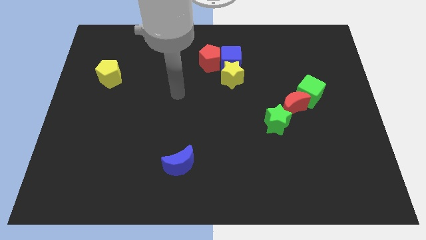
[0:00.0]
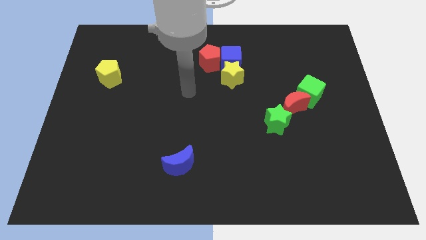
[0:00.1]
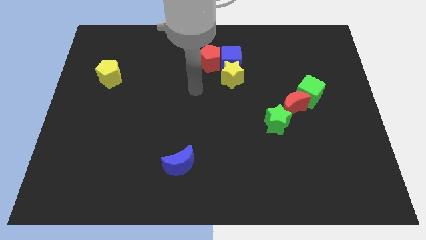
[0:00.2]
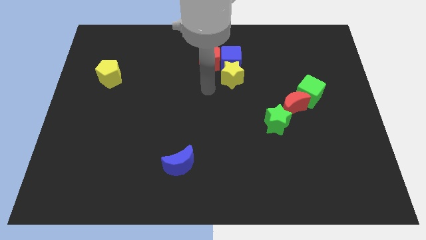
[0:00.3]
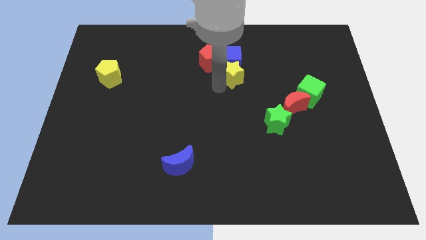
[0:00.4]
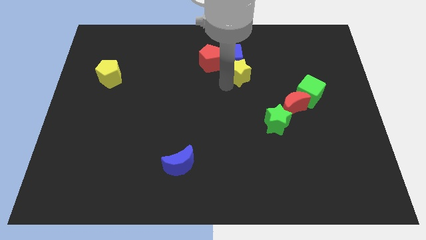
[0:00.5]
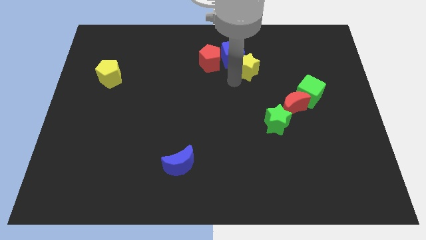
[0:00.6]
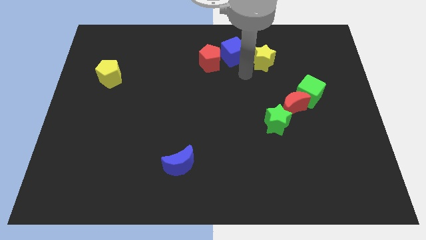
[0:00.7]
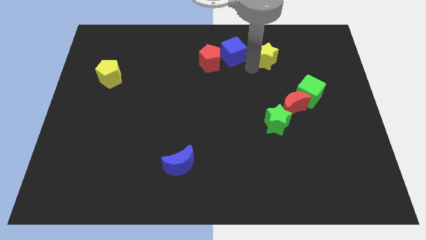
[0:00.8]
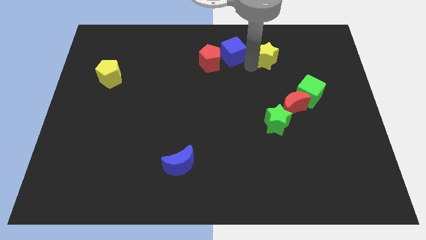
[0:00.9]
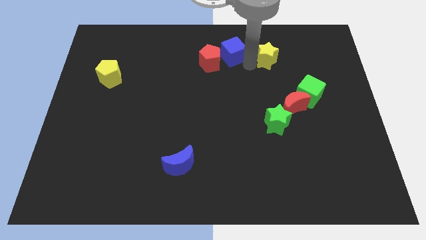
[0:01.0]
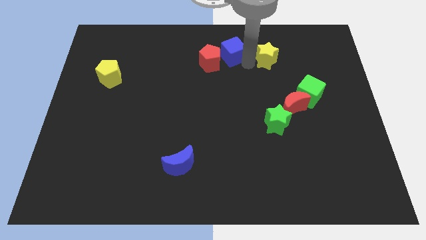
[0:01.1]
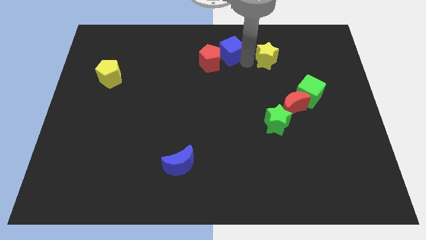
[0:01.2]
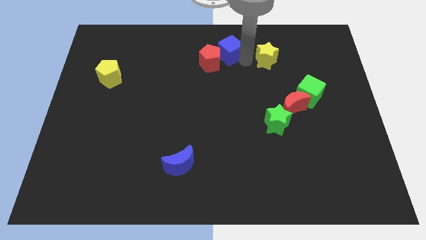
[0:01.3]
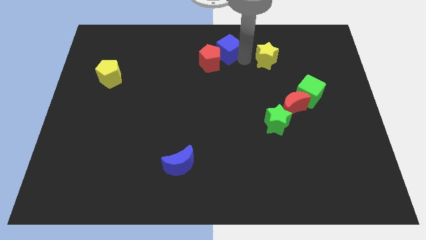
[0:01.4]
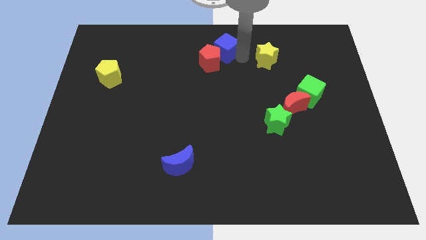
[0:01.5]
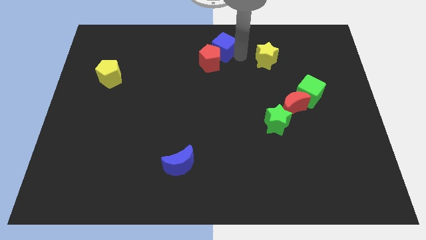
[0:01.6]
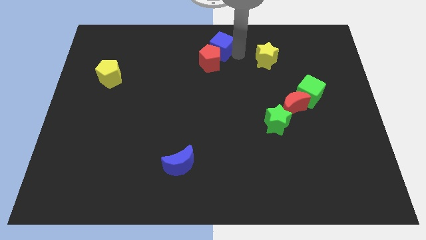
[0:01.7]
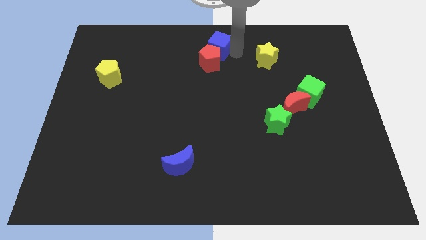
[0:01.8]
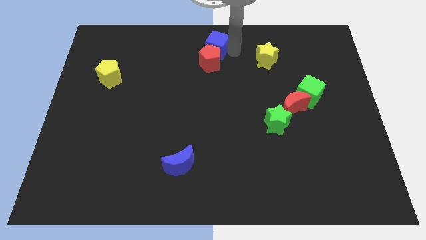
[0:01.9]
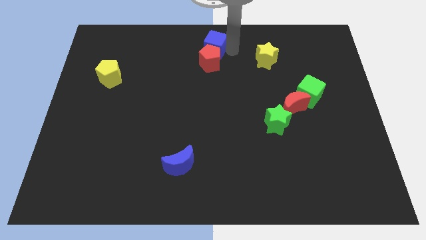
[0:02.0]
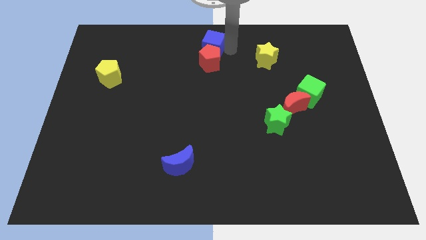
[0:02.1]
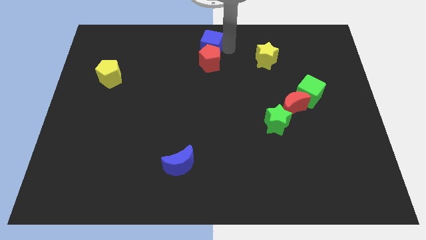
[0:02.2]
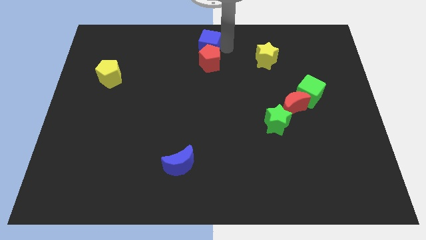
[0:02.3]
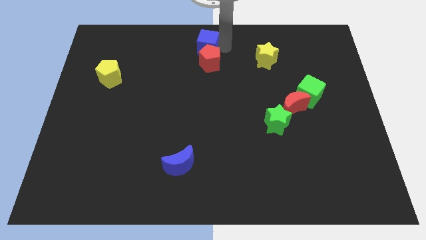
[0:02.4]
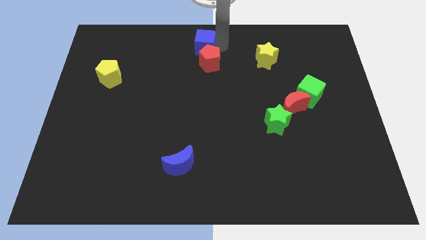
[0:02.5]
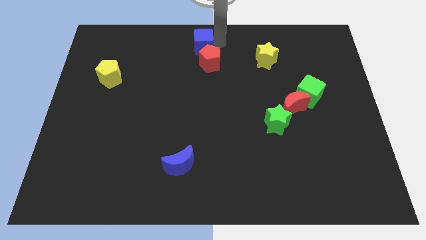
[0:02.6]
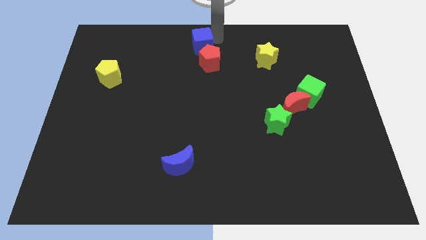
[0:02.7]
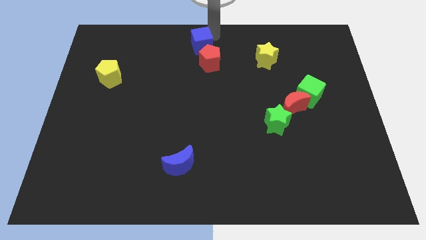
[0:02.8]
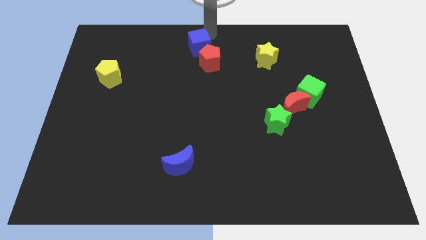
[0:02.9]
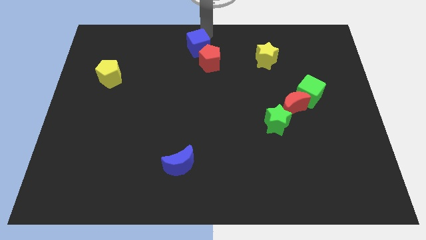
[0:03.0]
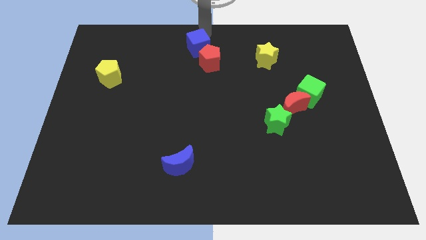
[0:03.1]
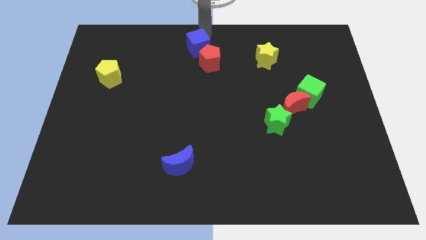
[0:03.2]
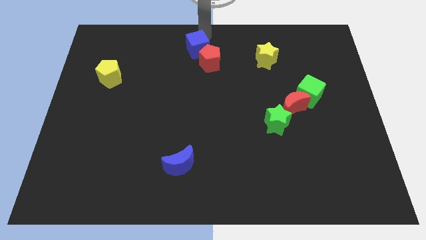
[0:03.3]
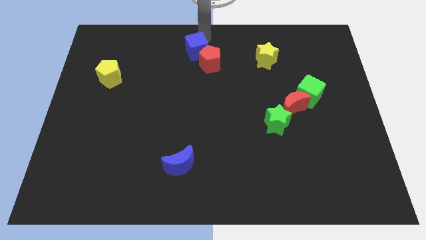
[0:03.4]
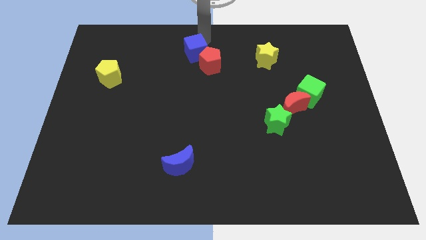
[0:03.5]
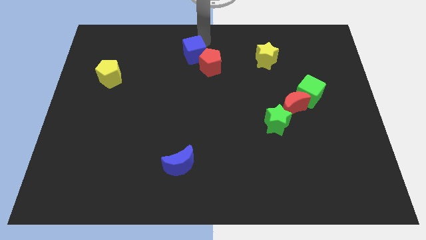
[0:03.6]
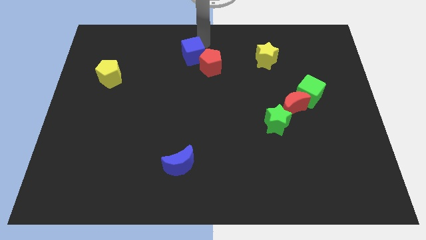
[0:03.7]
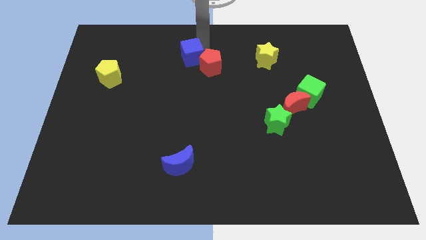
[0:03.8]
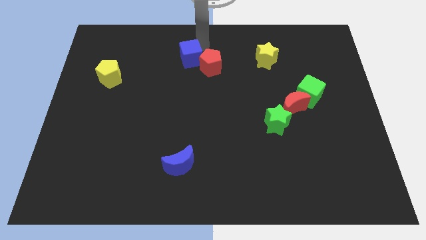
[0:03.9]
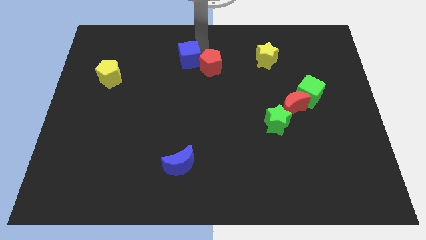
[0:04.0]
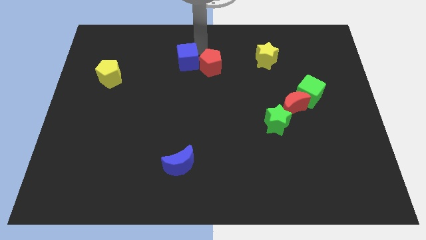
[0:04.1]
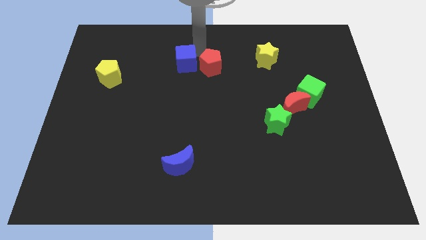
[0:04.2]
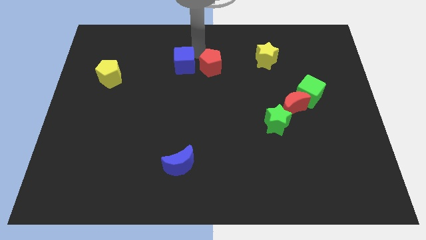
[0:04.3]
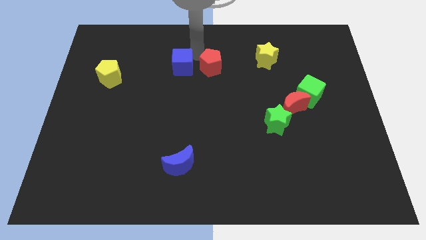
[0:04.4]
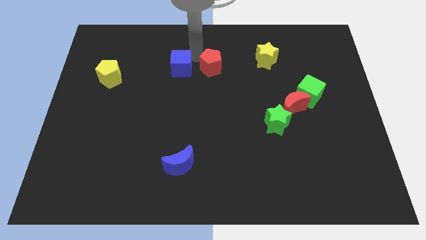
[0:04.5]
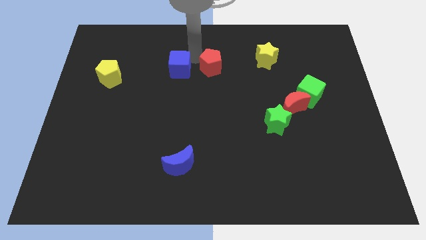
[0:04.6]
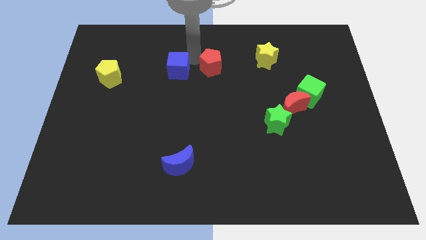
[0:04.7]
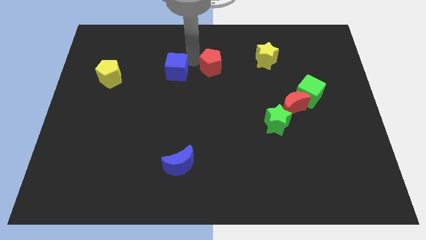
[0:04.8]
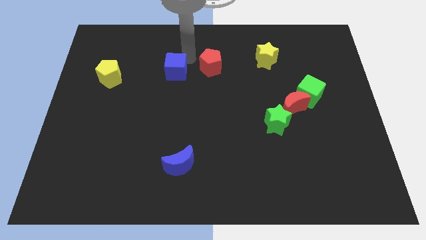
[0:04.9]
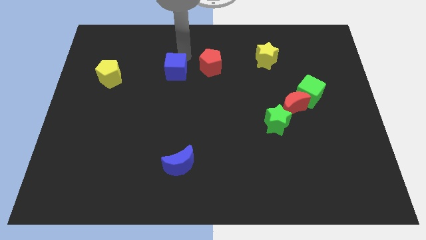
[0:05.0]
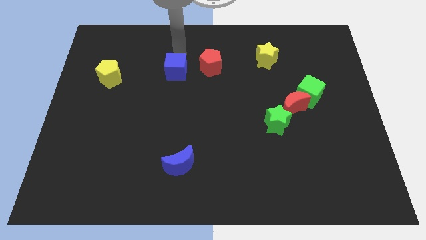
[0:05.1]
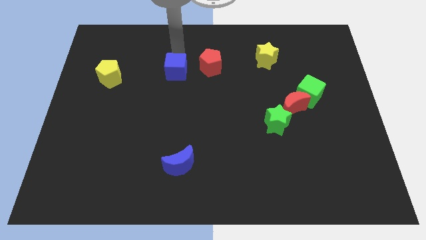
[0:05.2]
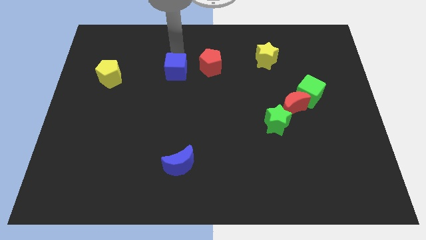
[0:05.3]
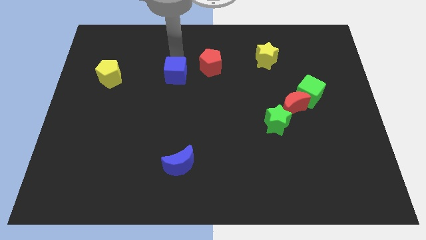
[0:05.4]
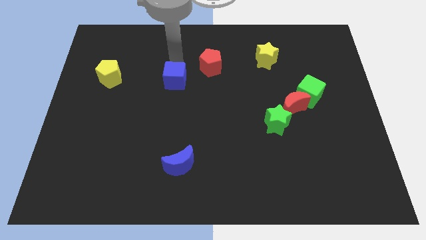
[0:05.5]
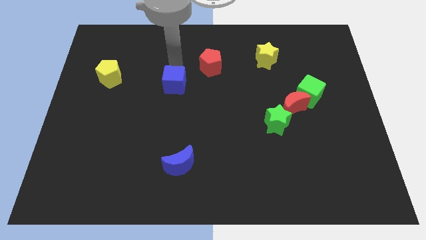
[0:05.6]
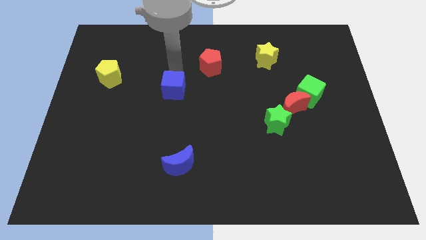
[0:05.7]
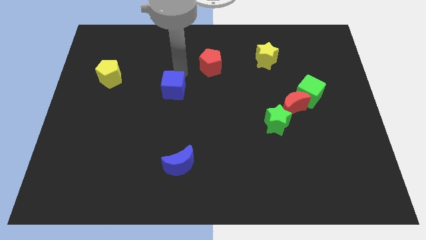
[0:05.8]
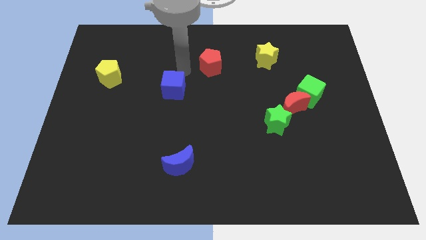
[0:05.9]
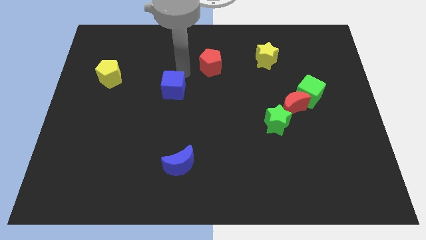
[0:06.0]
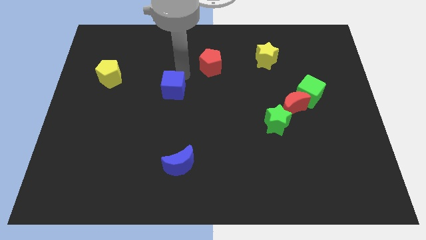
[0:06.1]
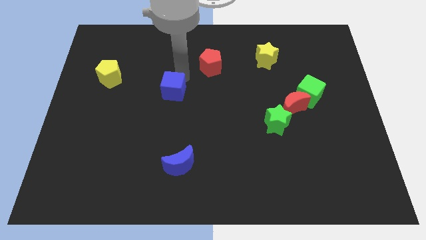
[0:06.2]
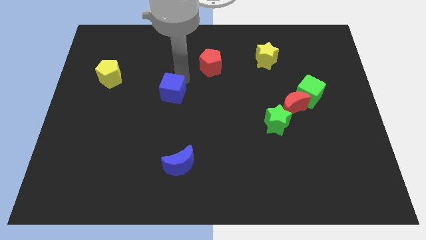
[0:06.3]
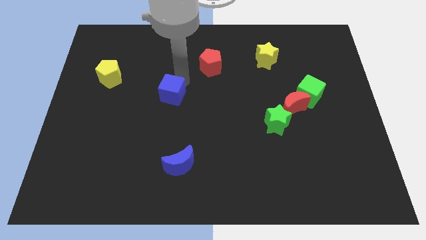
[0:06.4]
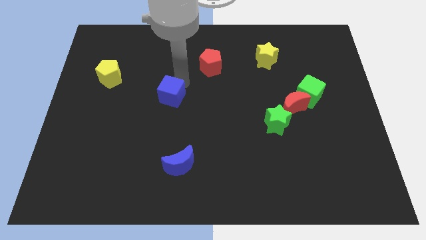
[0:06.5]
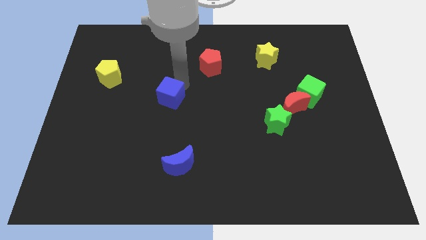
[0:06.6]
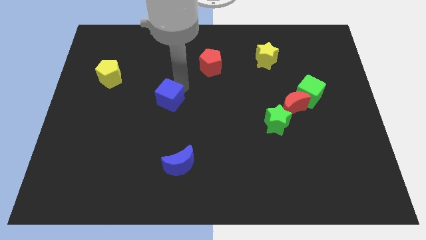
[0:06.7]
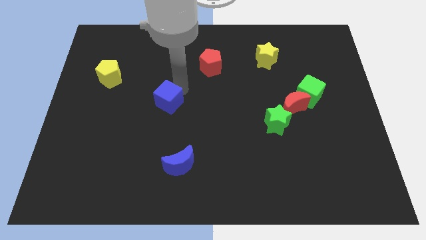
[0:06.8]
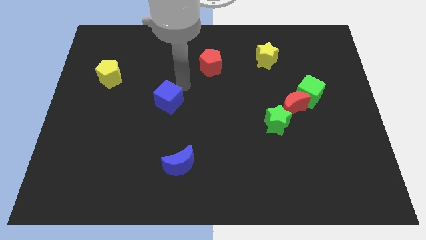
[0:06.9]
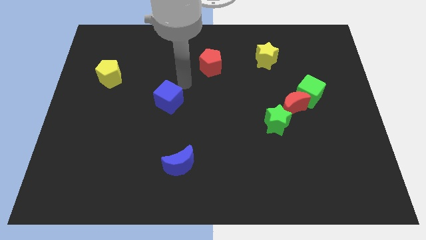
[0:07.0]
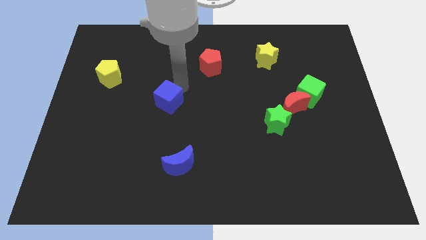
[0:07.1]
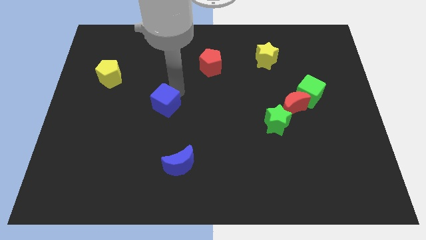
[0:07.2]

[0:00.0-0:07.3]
move the blue cube downwards and to the left diagonally

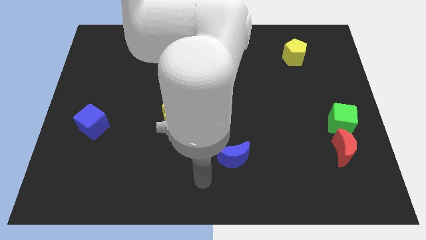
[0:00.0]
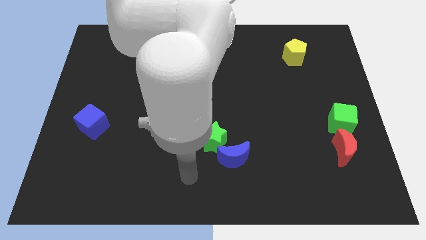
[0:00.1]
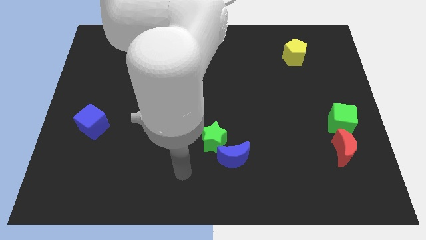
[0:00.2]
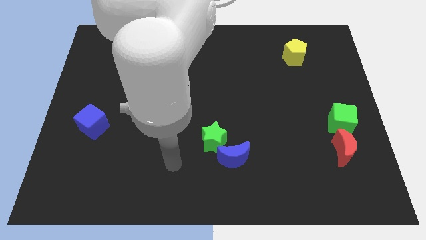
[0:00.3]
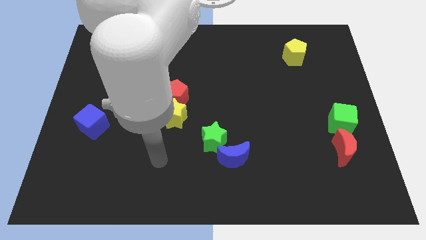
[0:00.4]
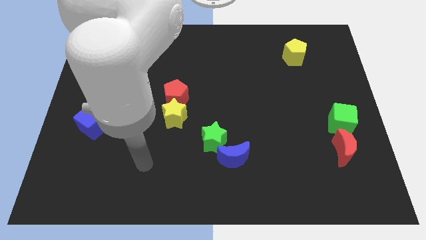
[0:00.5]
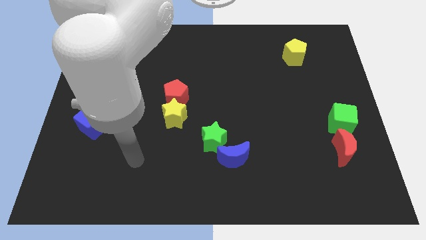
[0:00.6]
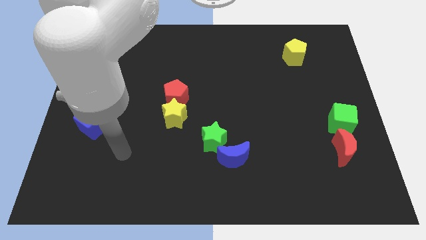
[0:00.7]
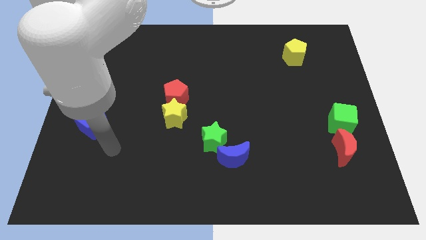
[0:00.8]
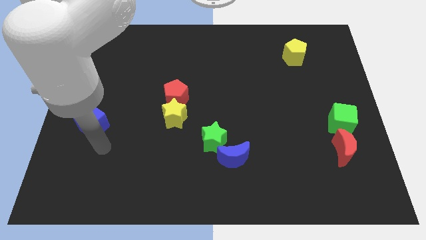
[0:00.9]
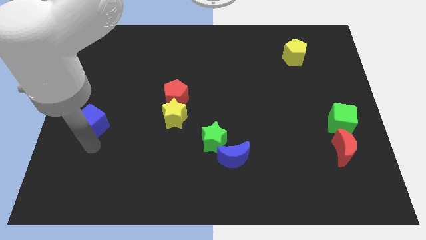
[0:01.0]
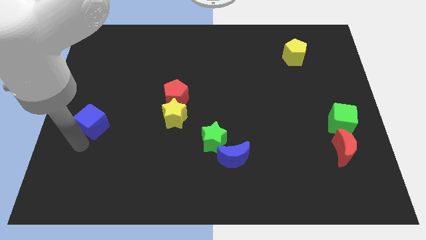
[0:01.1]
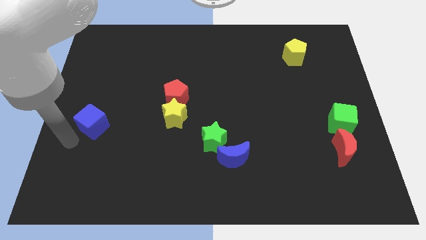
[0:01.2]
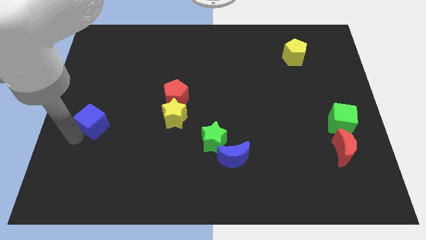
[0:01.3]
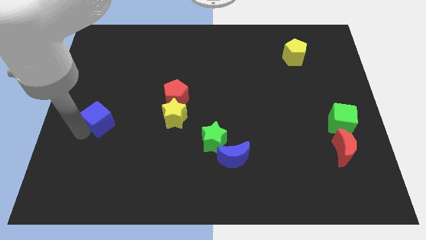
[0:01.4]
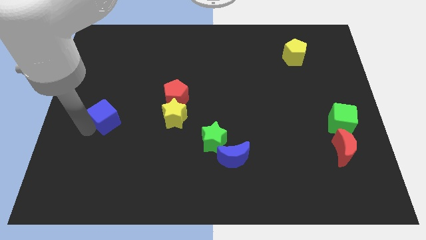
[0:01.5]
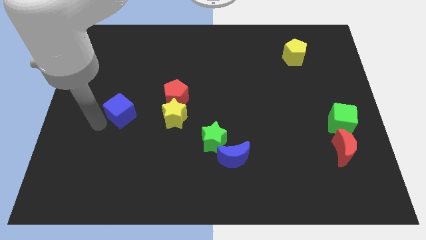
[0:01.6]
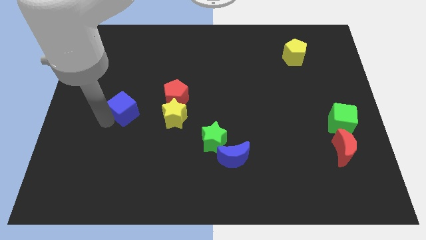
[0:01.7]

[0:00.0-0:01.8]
slide the blue cube a bit upwards and then right
